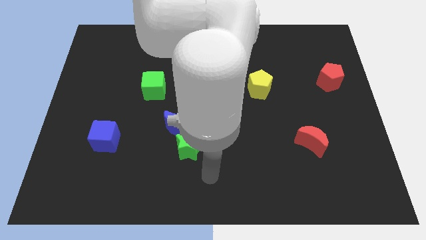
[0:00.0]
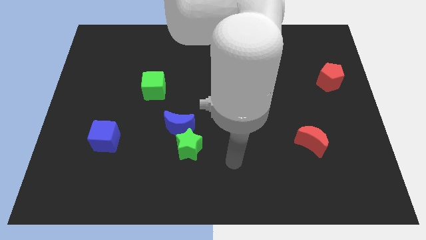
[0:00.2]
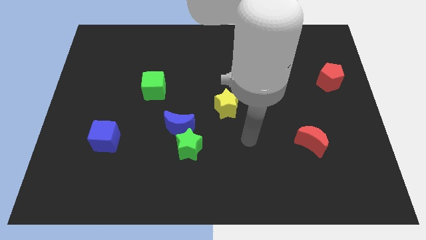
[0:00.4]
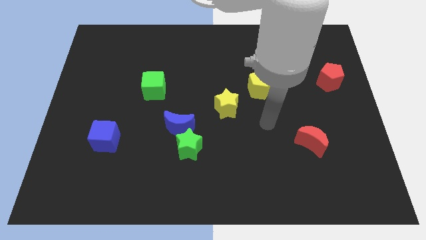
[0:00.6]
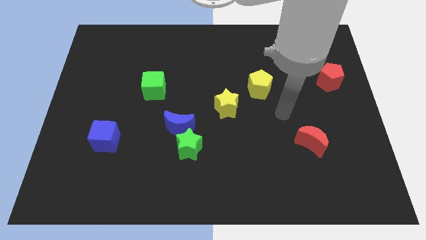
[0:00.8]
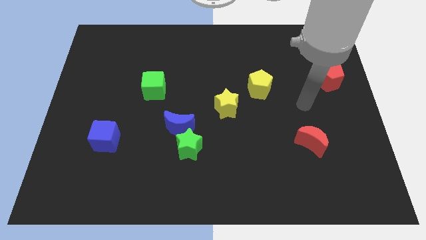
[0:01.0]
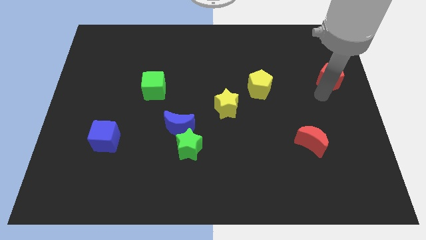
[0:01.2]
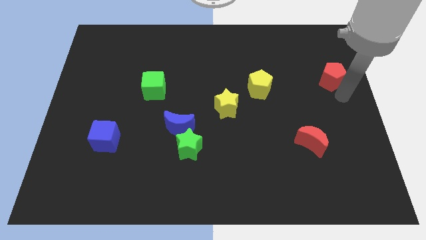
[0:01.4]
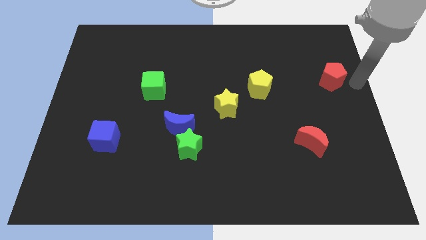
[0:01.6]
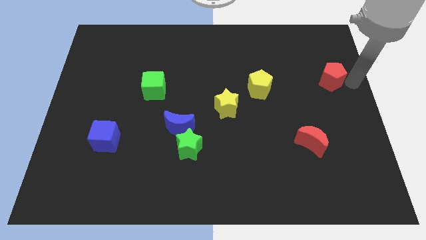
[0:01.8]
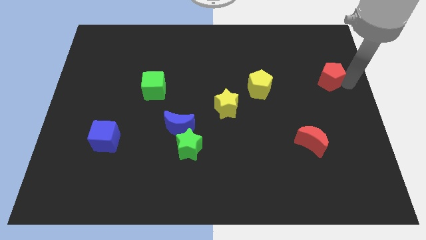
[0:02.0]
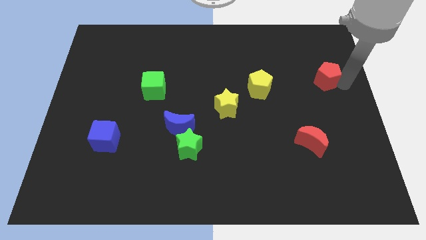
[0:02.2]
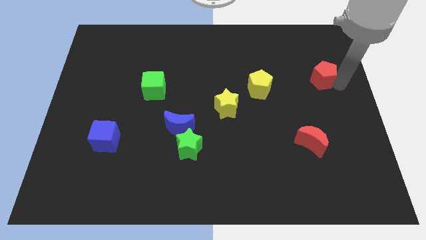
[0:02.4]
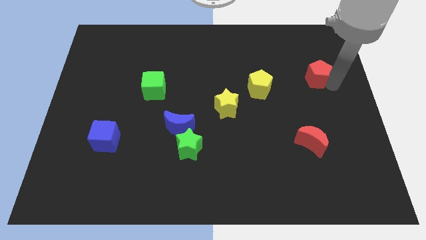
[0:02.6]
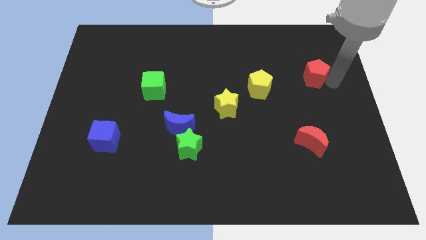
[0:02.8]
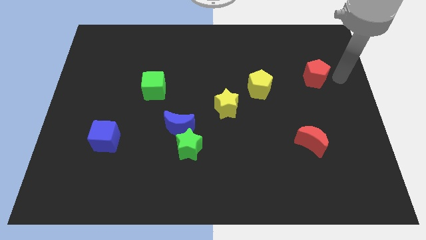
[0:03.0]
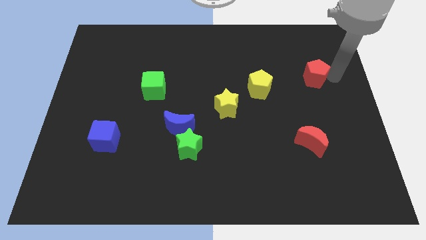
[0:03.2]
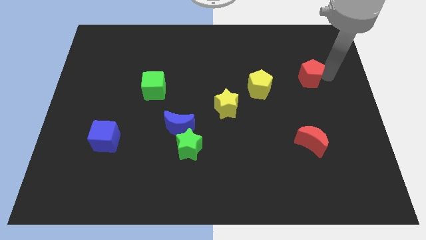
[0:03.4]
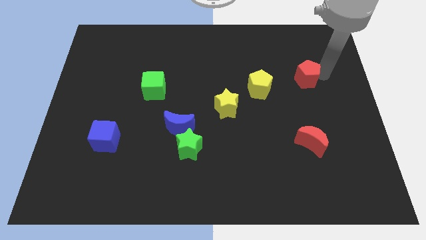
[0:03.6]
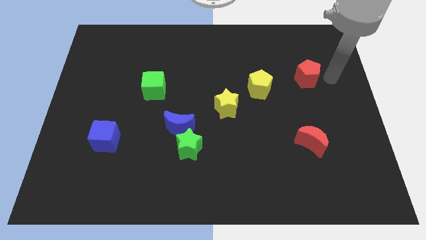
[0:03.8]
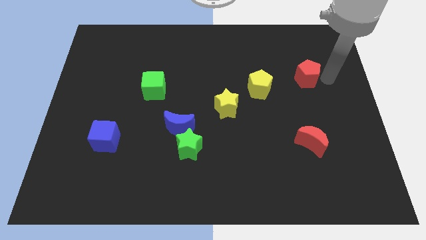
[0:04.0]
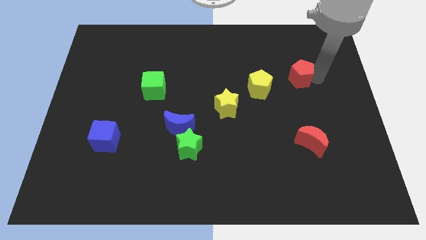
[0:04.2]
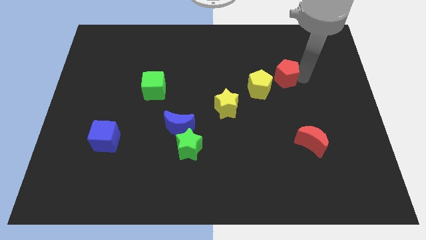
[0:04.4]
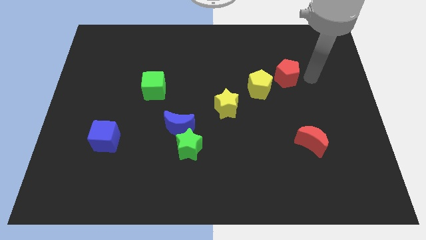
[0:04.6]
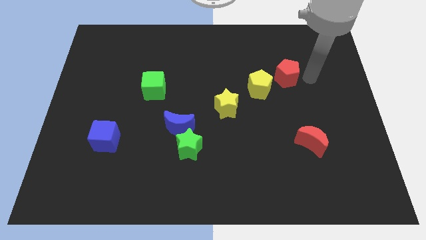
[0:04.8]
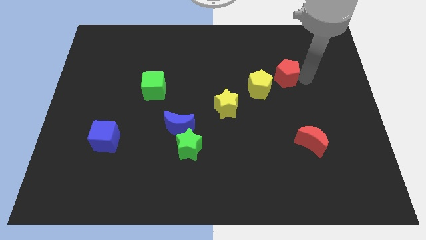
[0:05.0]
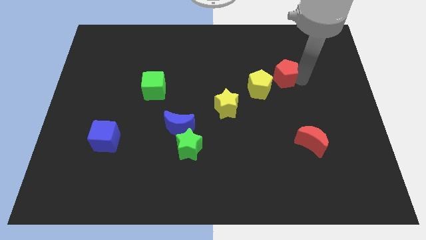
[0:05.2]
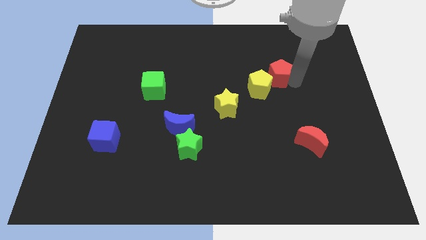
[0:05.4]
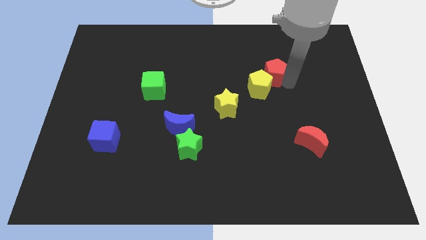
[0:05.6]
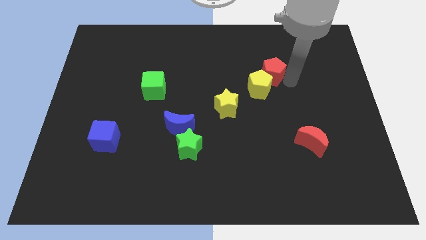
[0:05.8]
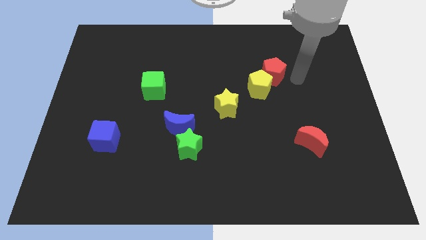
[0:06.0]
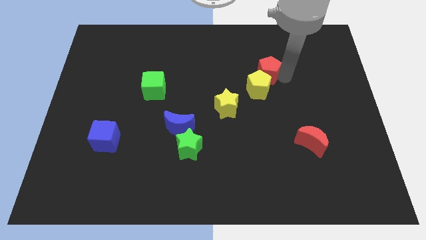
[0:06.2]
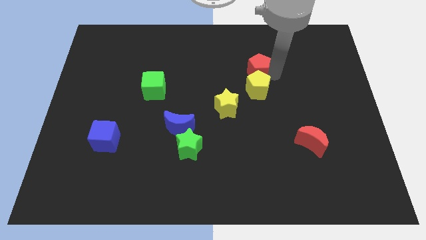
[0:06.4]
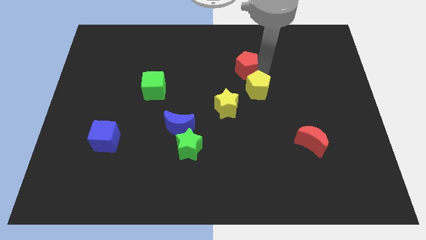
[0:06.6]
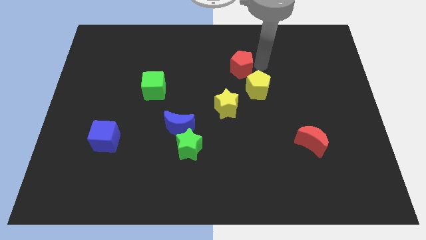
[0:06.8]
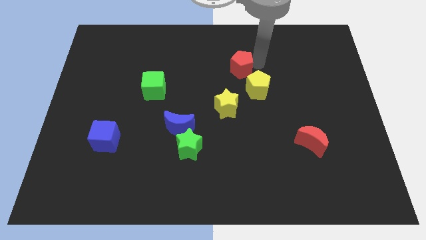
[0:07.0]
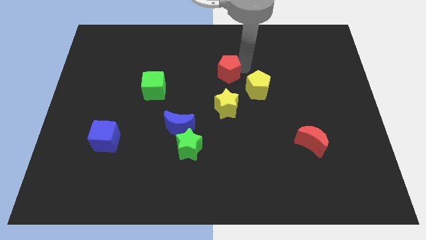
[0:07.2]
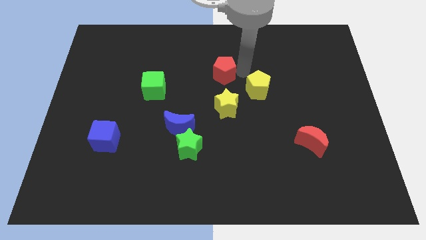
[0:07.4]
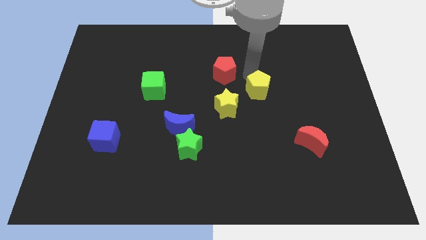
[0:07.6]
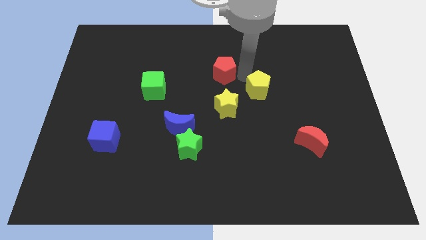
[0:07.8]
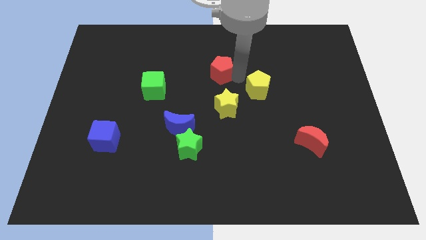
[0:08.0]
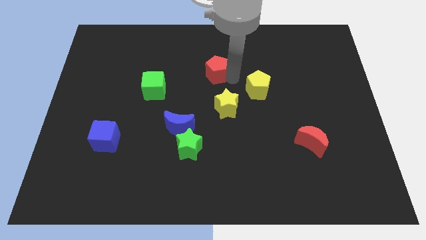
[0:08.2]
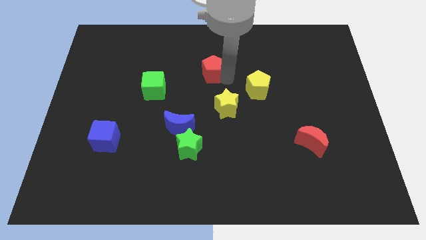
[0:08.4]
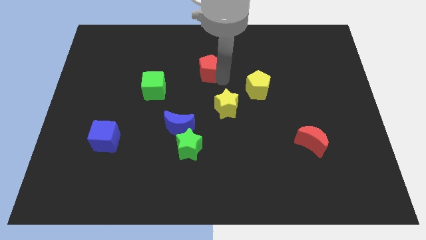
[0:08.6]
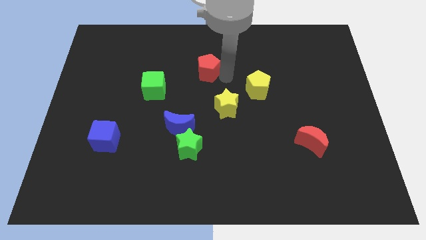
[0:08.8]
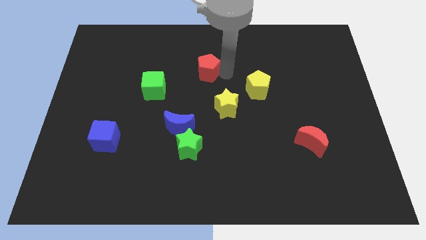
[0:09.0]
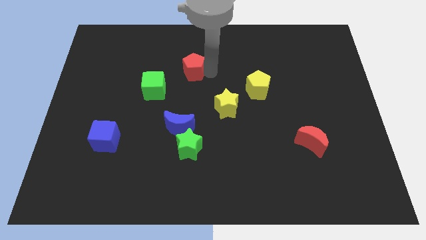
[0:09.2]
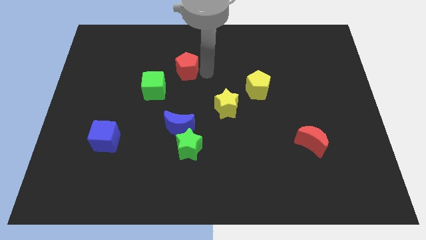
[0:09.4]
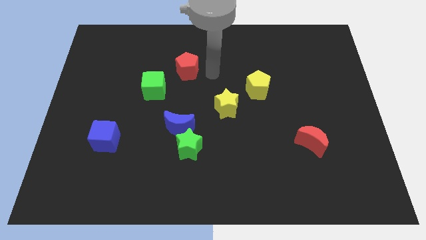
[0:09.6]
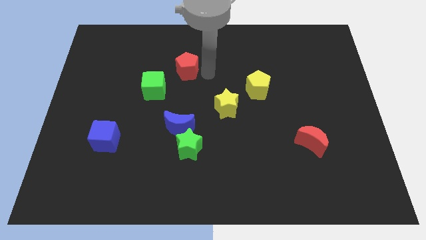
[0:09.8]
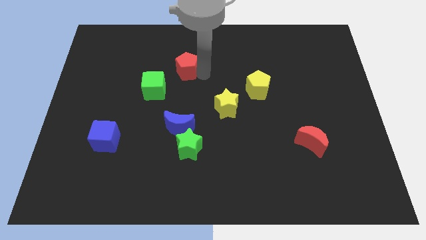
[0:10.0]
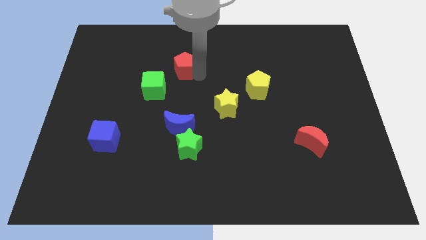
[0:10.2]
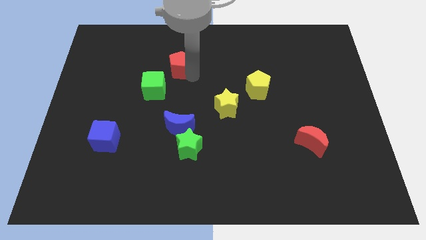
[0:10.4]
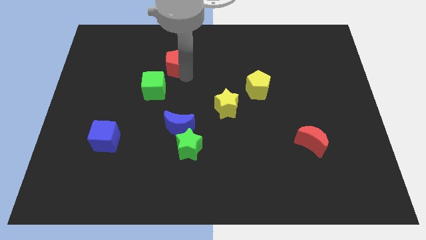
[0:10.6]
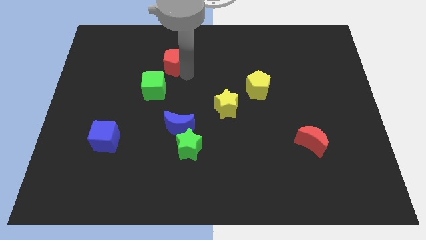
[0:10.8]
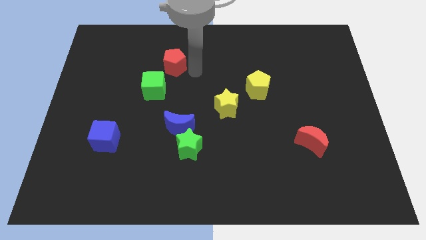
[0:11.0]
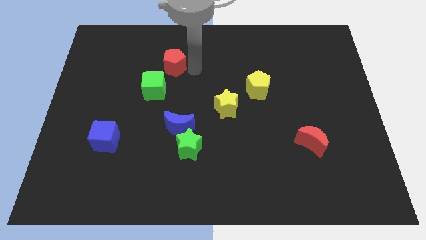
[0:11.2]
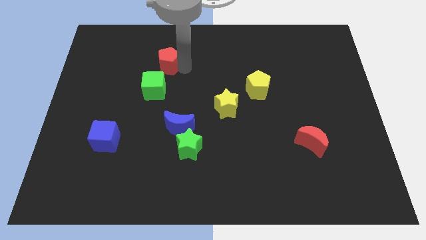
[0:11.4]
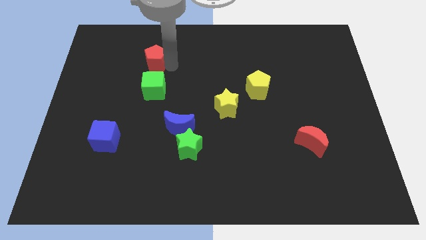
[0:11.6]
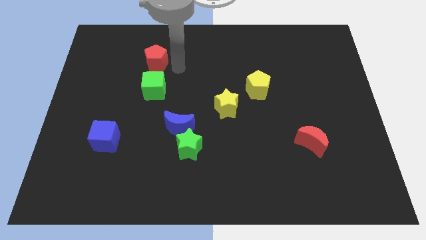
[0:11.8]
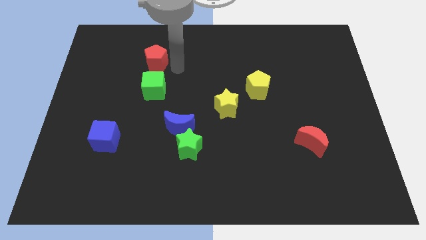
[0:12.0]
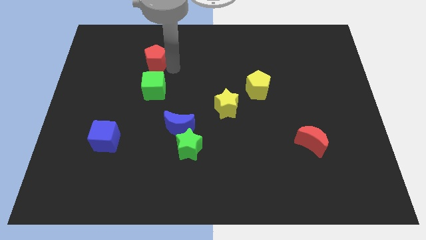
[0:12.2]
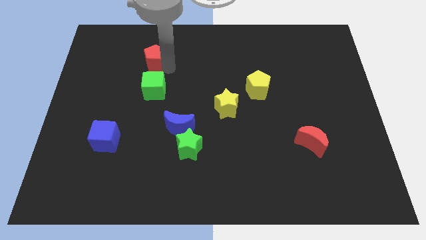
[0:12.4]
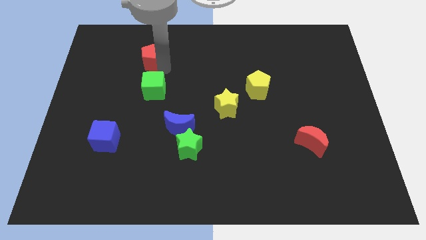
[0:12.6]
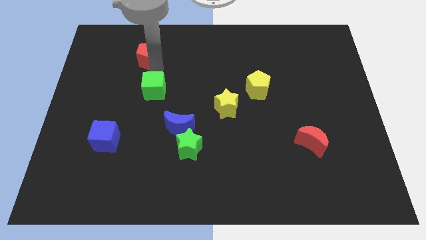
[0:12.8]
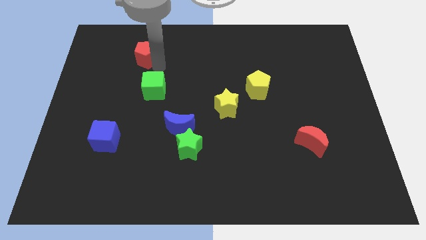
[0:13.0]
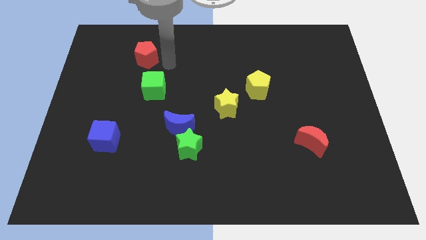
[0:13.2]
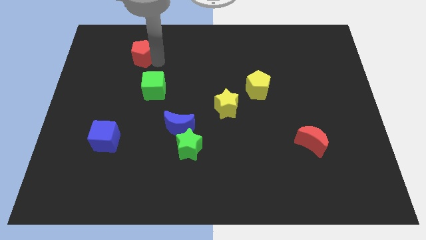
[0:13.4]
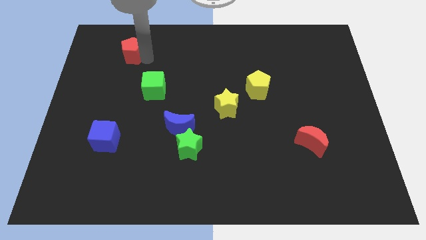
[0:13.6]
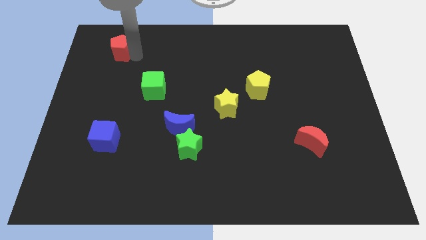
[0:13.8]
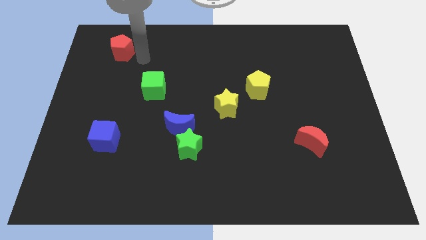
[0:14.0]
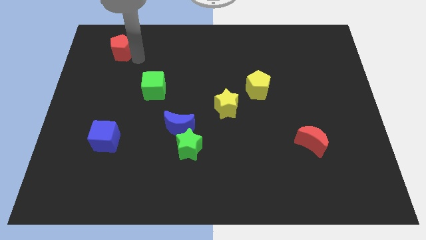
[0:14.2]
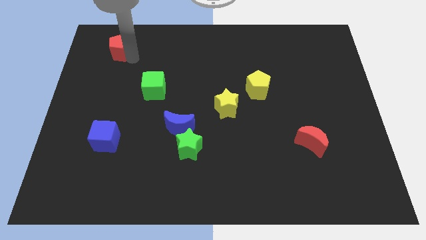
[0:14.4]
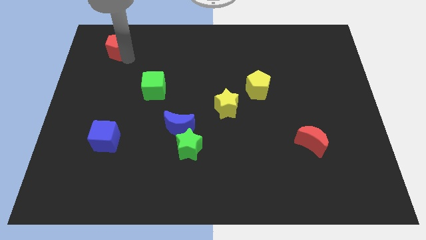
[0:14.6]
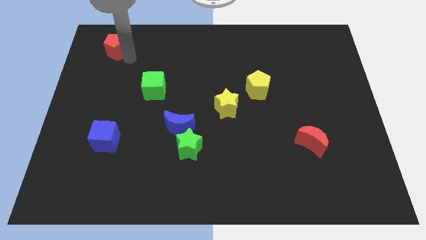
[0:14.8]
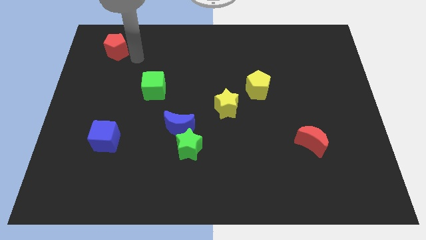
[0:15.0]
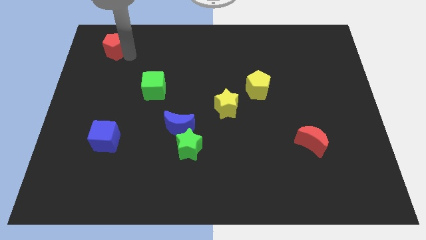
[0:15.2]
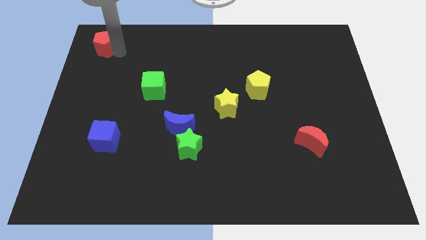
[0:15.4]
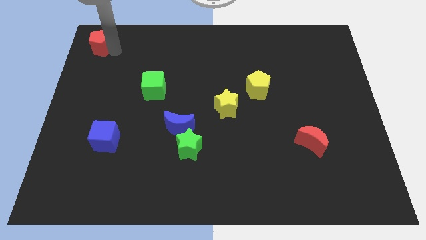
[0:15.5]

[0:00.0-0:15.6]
push the red pentagon to the upper left corner
